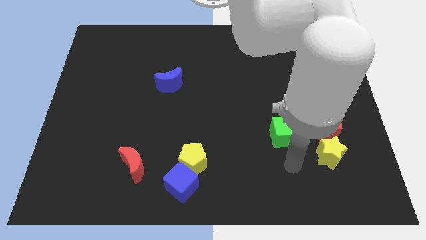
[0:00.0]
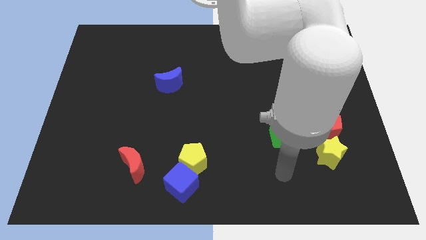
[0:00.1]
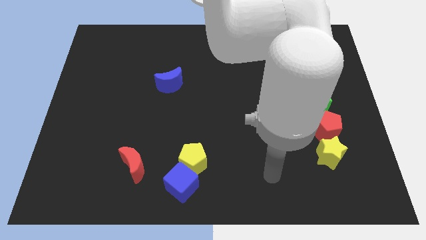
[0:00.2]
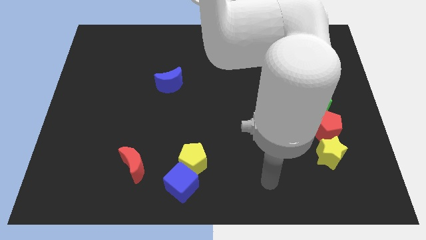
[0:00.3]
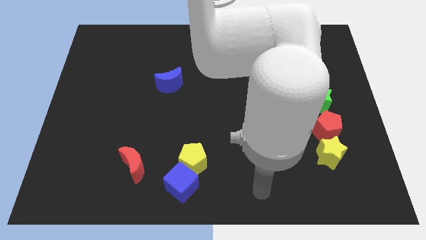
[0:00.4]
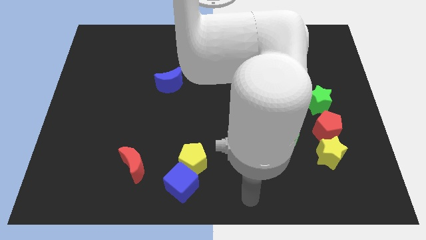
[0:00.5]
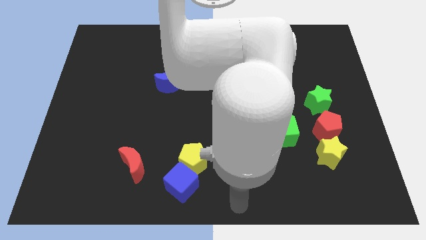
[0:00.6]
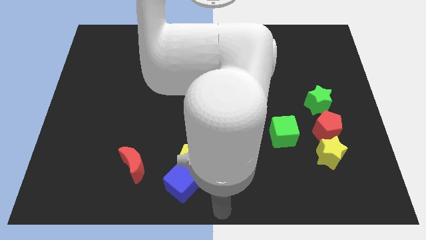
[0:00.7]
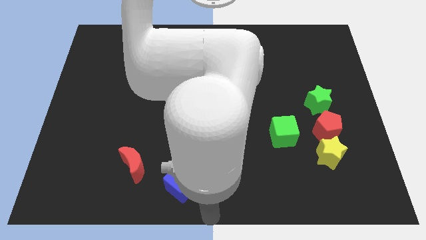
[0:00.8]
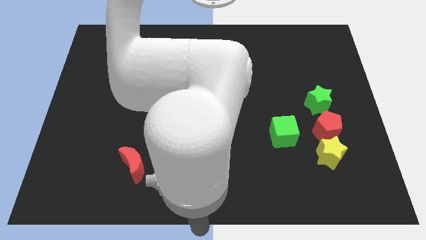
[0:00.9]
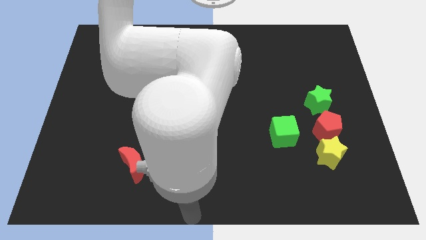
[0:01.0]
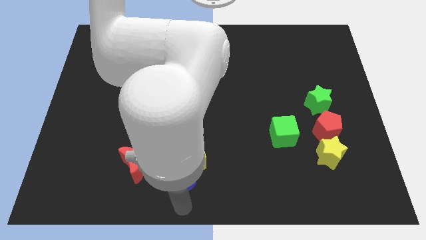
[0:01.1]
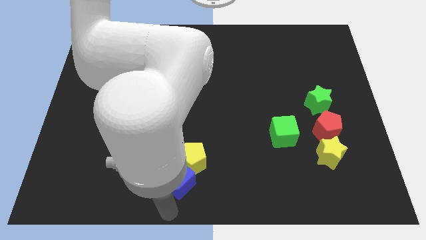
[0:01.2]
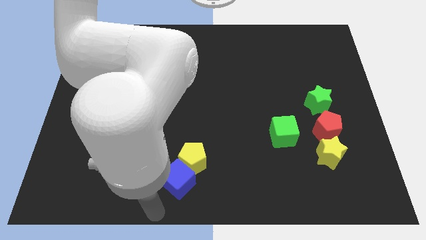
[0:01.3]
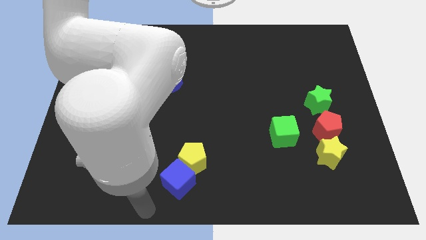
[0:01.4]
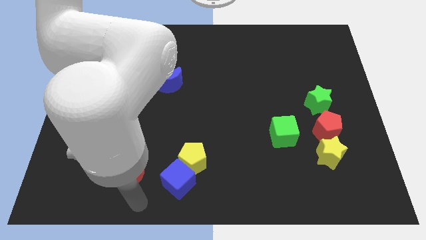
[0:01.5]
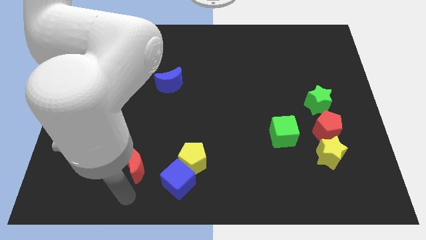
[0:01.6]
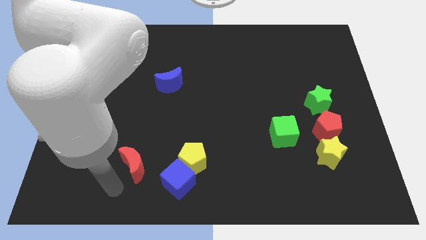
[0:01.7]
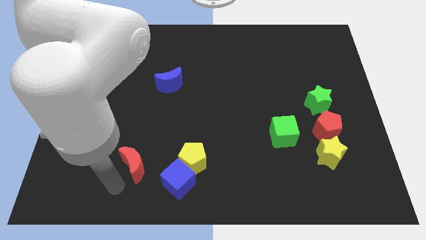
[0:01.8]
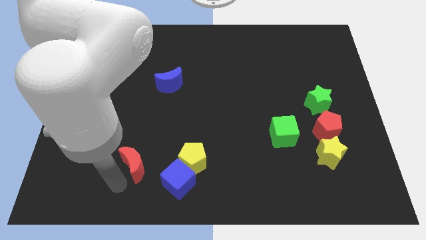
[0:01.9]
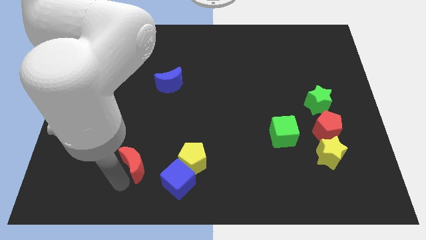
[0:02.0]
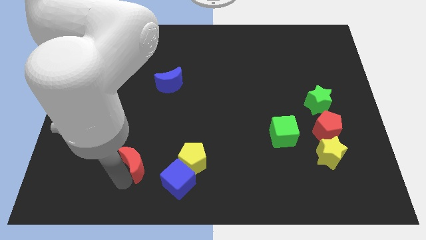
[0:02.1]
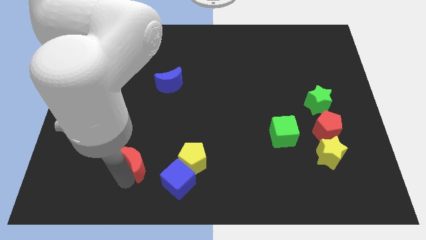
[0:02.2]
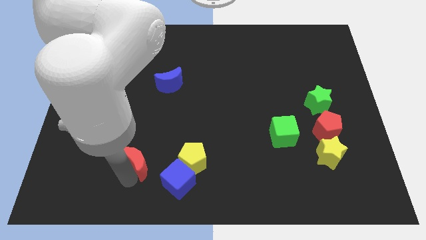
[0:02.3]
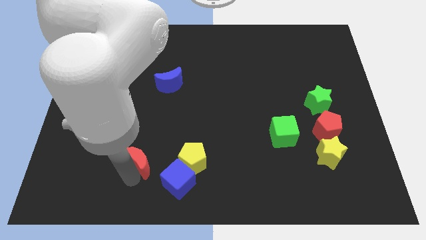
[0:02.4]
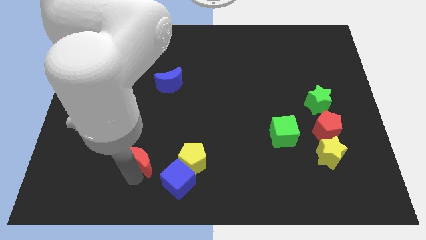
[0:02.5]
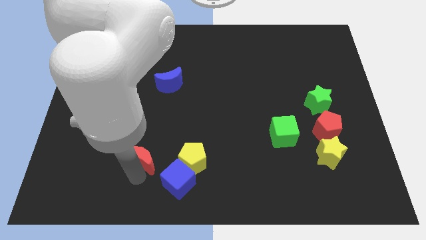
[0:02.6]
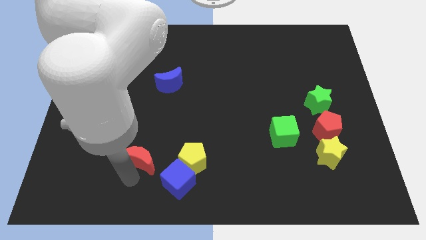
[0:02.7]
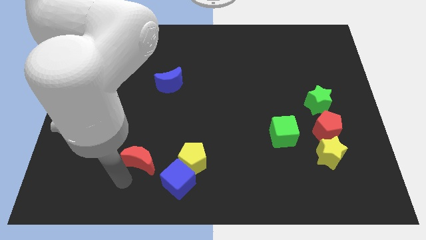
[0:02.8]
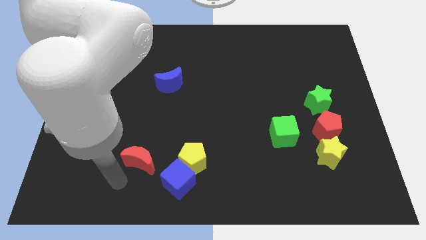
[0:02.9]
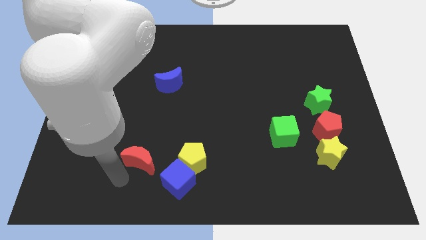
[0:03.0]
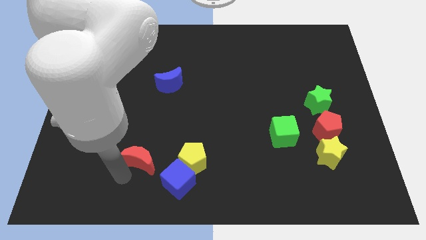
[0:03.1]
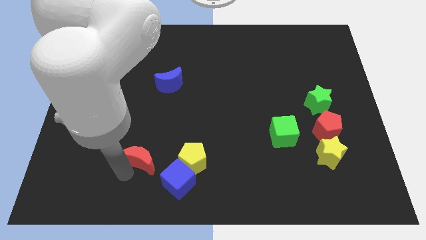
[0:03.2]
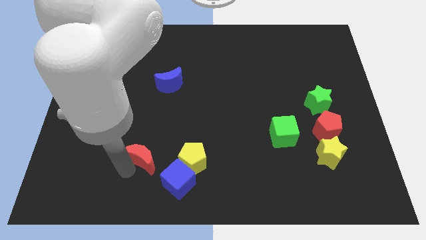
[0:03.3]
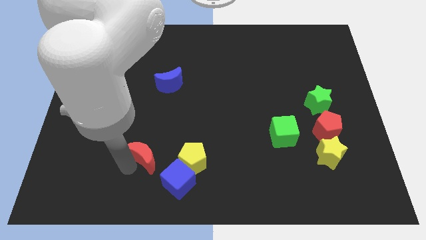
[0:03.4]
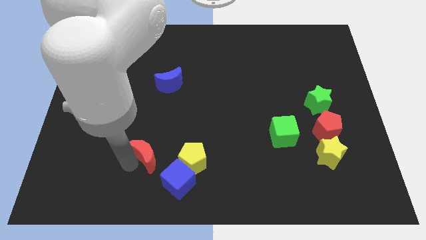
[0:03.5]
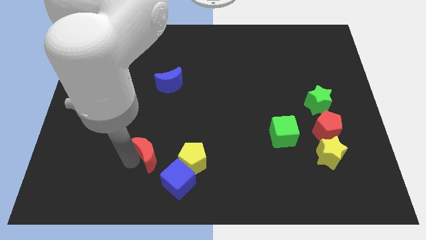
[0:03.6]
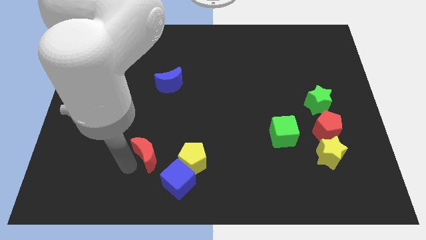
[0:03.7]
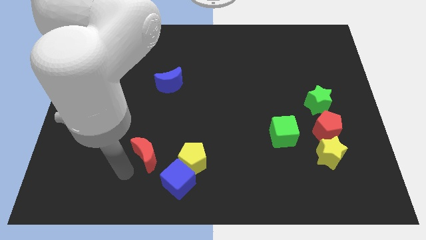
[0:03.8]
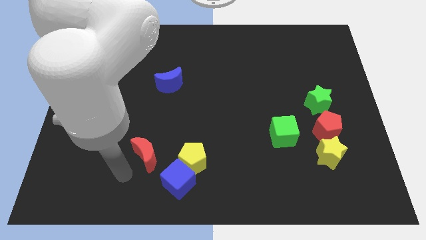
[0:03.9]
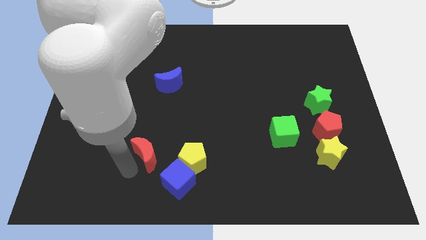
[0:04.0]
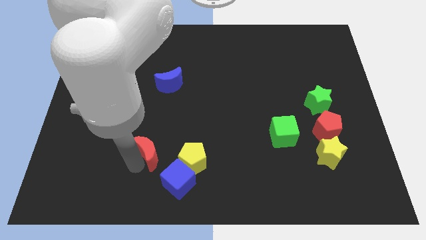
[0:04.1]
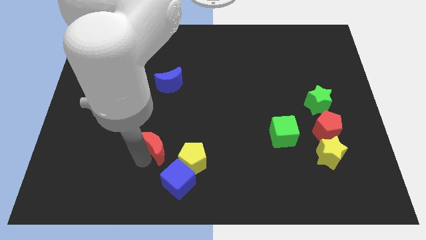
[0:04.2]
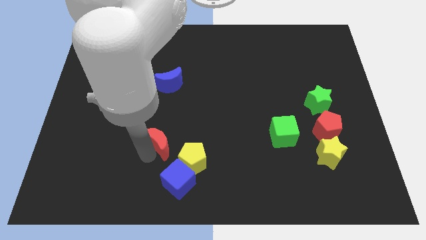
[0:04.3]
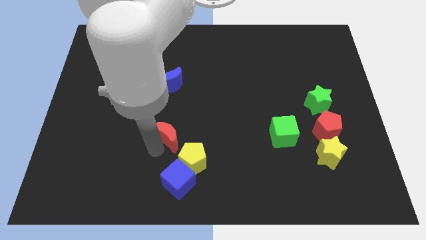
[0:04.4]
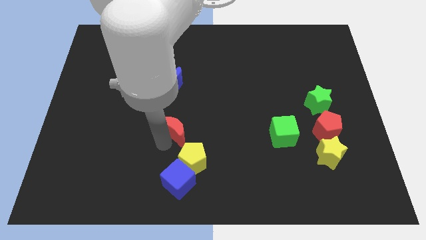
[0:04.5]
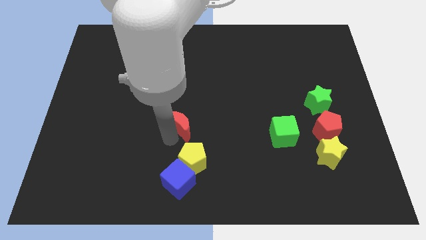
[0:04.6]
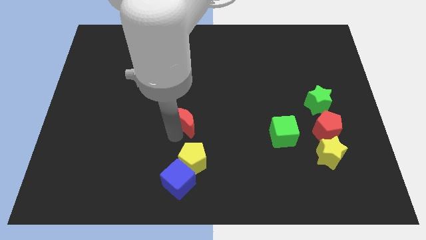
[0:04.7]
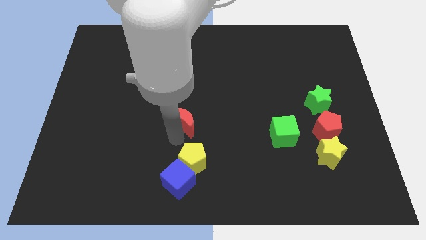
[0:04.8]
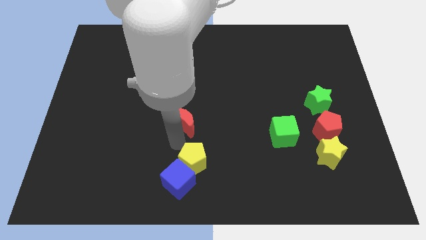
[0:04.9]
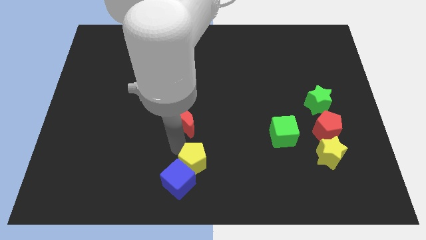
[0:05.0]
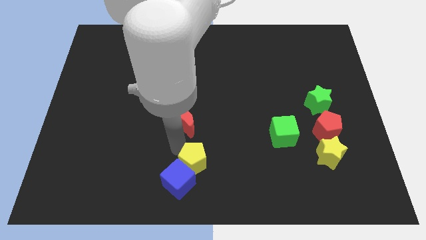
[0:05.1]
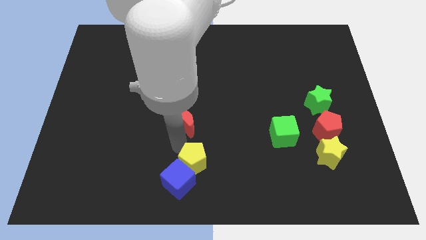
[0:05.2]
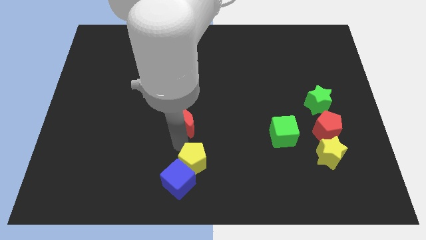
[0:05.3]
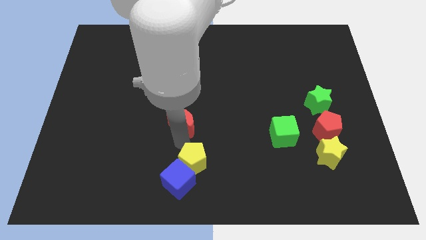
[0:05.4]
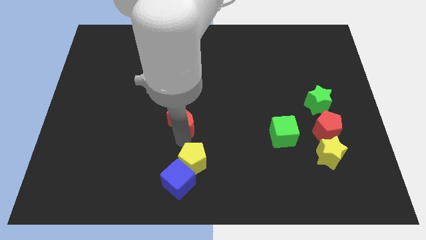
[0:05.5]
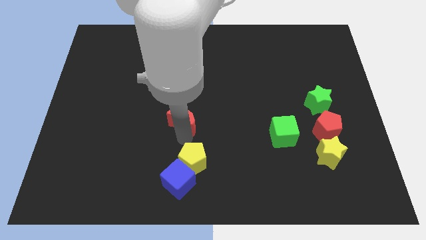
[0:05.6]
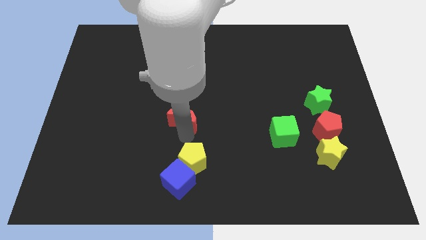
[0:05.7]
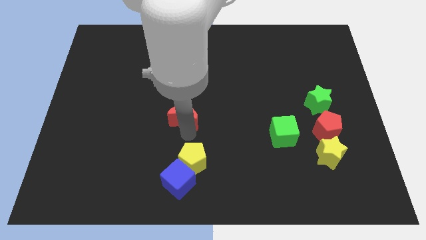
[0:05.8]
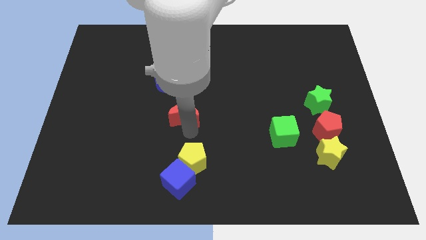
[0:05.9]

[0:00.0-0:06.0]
slide the red moon diagonally down and to the right of the blue moon

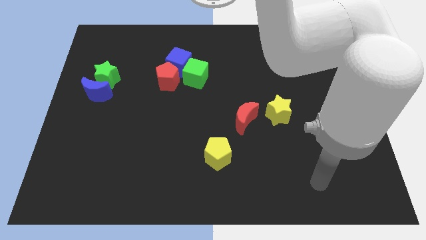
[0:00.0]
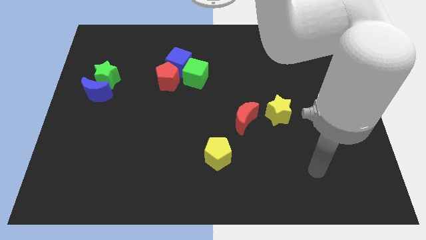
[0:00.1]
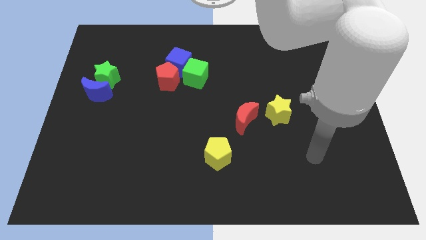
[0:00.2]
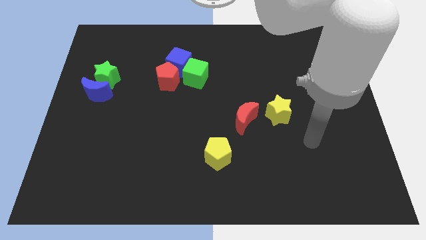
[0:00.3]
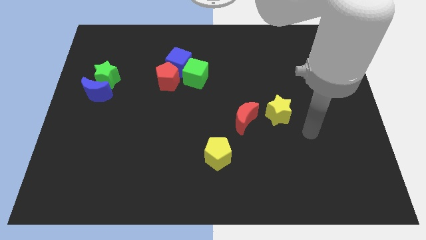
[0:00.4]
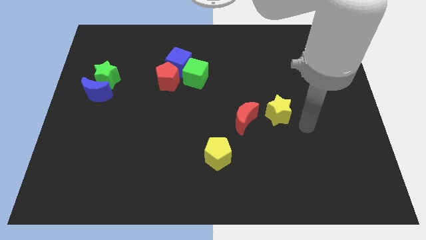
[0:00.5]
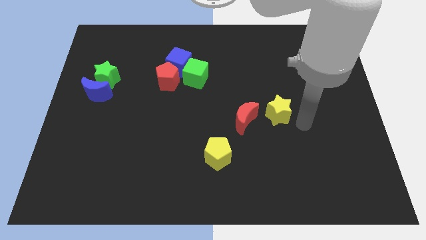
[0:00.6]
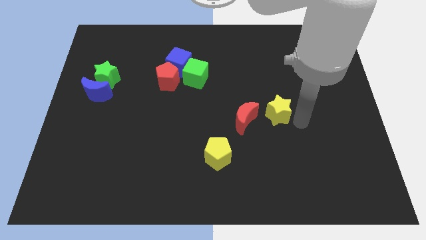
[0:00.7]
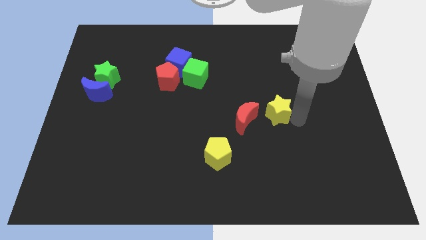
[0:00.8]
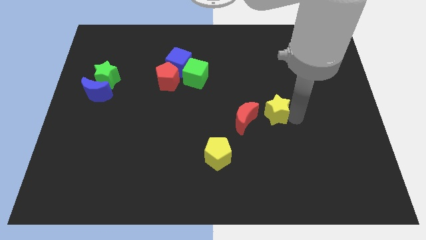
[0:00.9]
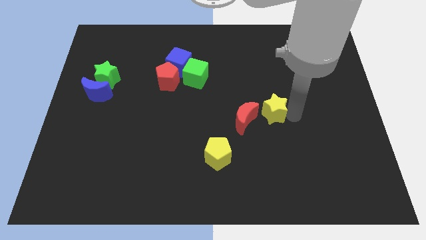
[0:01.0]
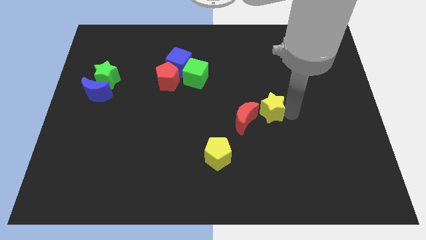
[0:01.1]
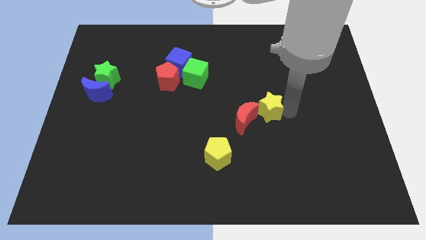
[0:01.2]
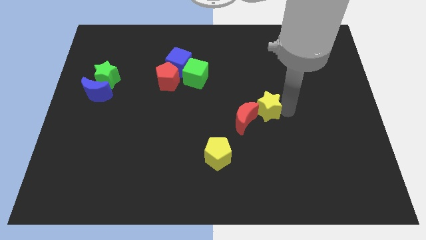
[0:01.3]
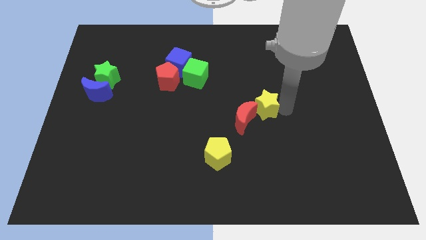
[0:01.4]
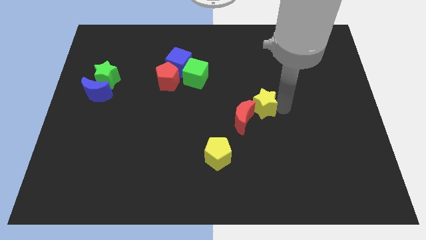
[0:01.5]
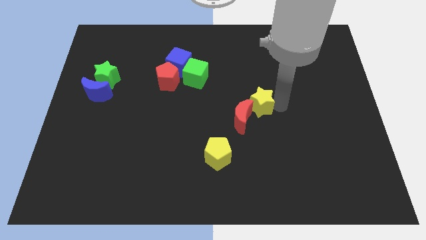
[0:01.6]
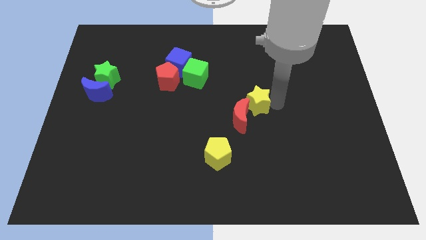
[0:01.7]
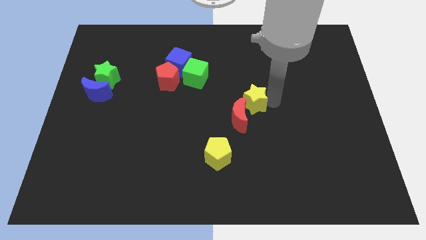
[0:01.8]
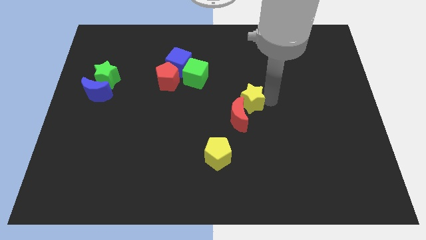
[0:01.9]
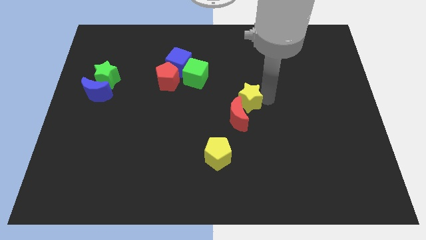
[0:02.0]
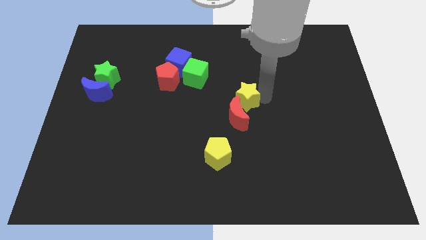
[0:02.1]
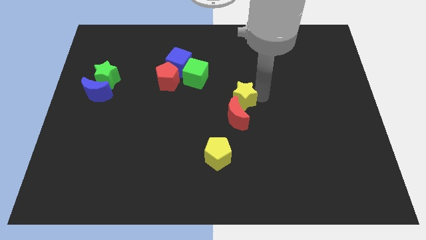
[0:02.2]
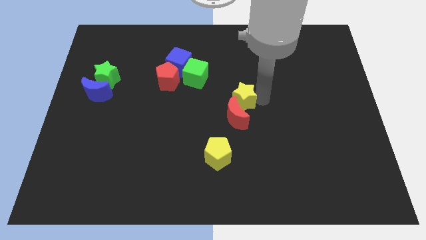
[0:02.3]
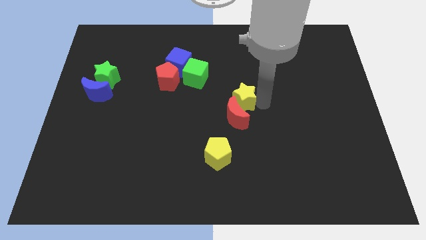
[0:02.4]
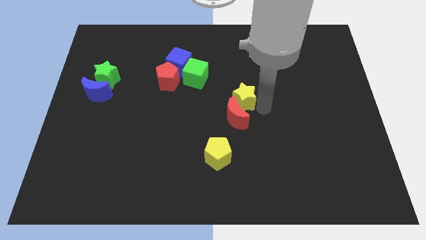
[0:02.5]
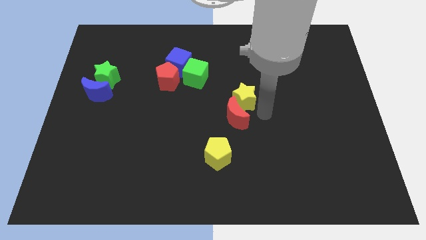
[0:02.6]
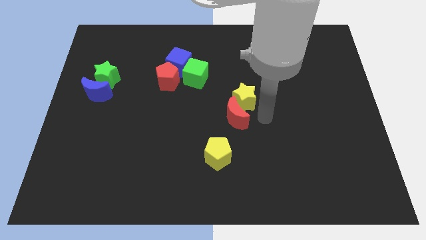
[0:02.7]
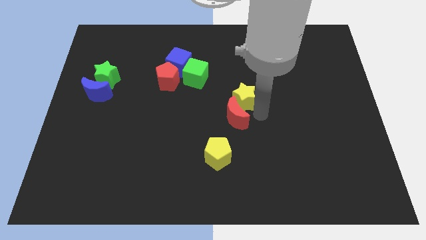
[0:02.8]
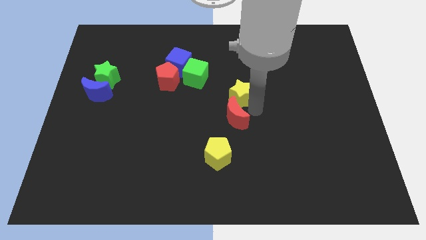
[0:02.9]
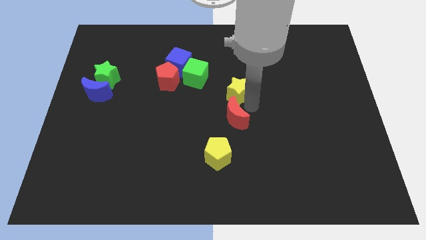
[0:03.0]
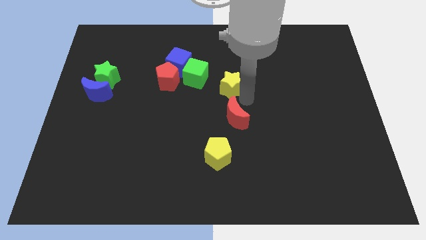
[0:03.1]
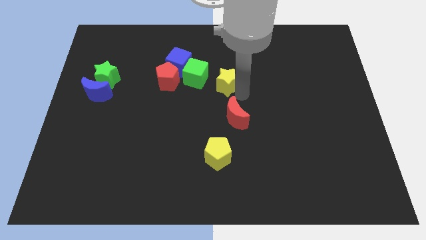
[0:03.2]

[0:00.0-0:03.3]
move the yellow star right of the red pentagon
